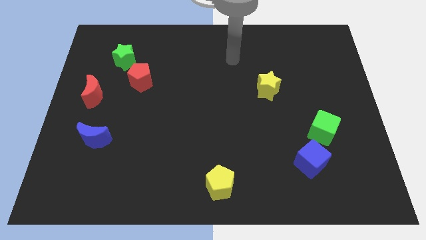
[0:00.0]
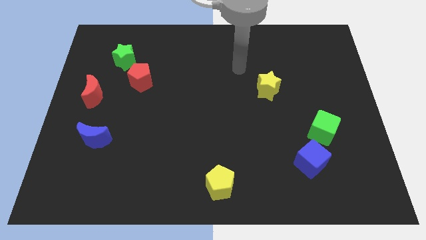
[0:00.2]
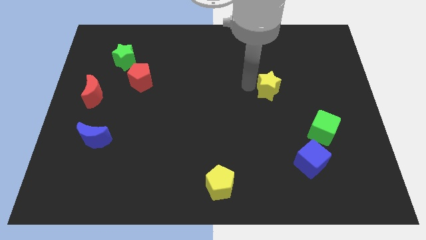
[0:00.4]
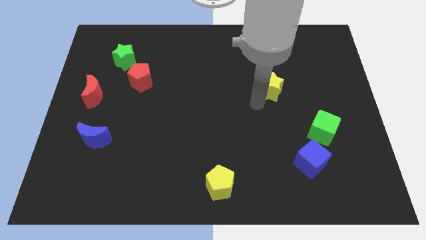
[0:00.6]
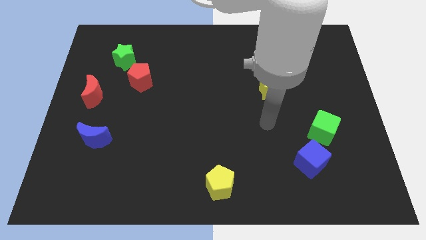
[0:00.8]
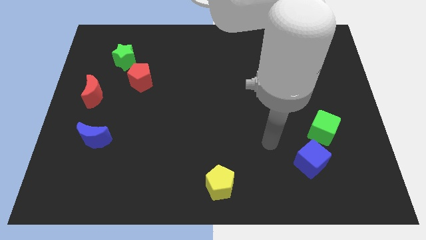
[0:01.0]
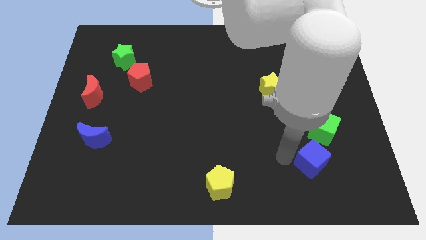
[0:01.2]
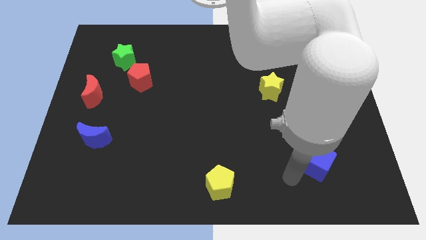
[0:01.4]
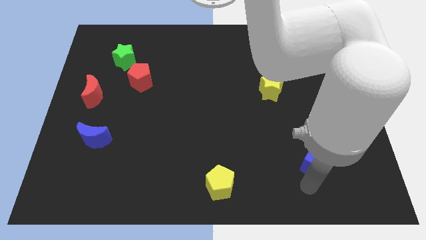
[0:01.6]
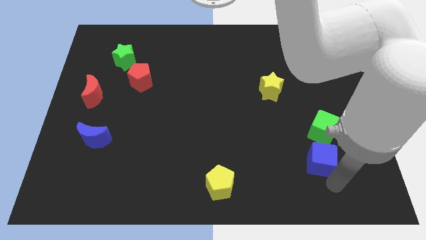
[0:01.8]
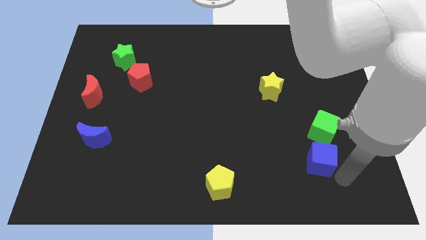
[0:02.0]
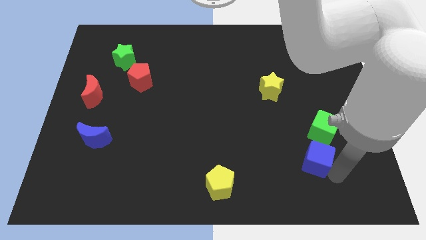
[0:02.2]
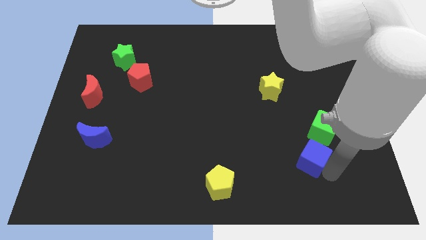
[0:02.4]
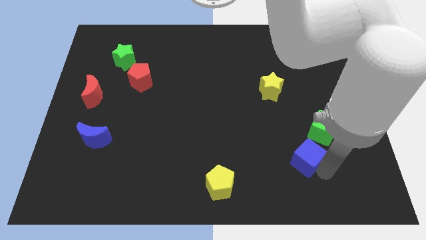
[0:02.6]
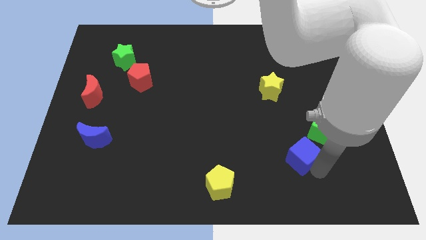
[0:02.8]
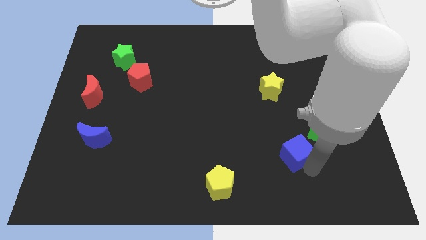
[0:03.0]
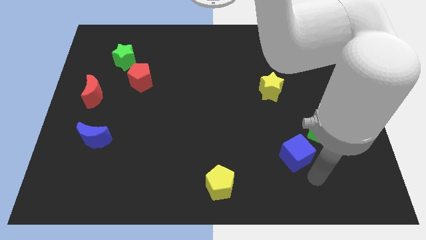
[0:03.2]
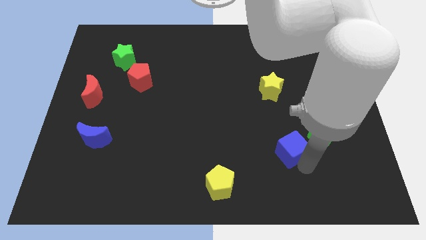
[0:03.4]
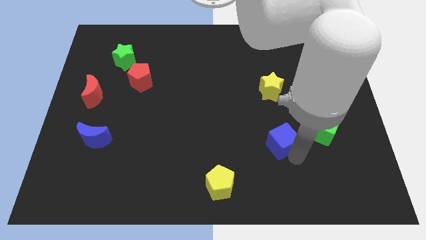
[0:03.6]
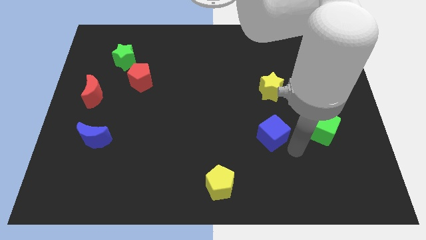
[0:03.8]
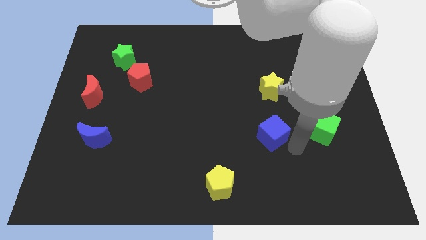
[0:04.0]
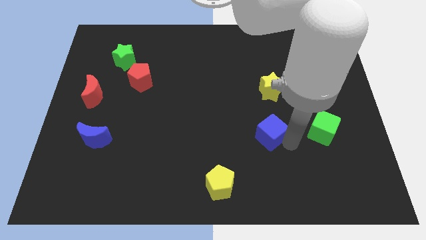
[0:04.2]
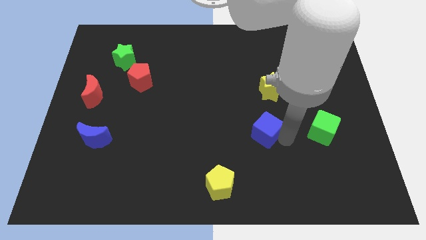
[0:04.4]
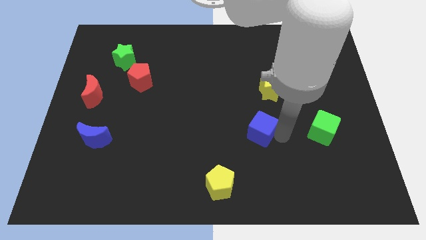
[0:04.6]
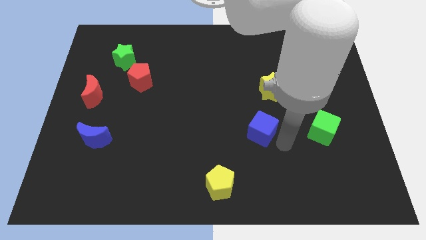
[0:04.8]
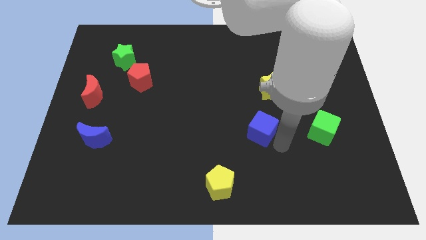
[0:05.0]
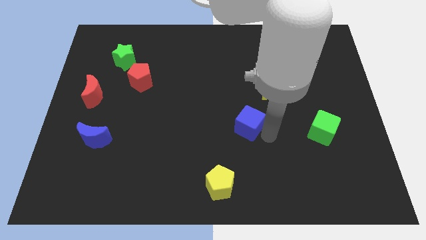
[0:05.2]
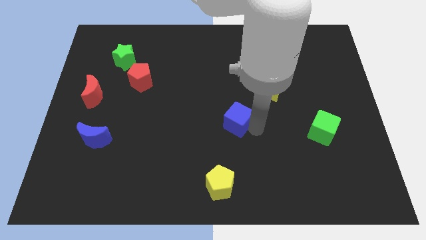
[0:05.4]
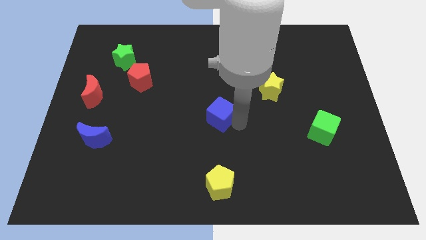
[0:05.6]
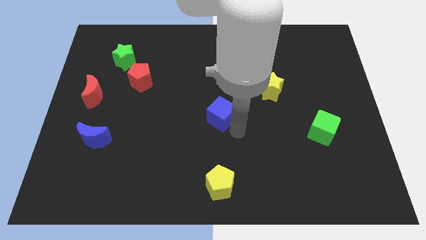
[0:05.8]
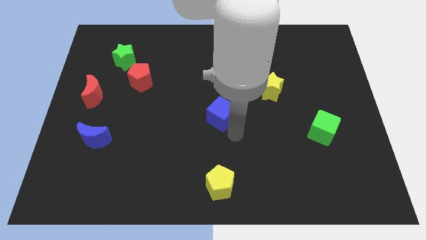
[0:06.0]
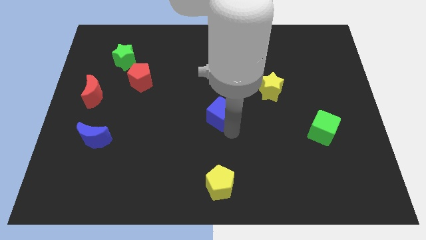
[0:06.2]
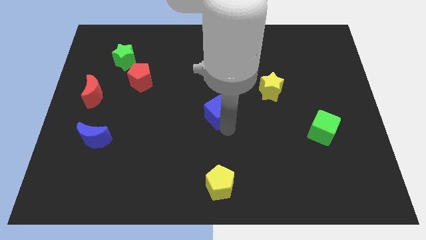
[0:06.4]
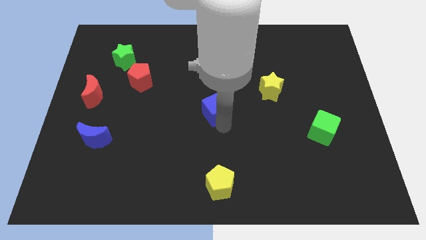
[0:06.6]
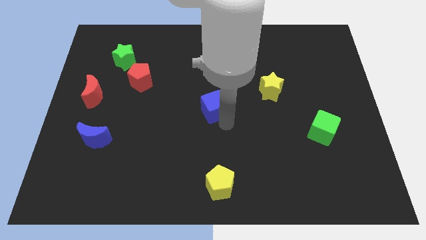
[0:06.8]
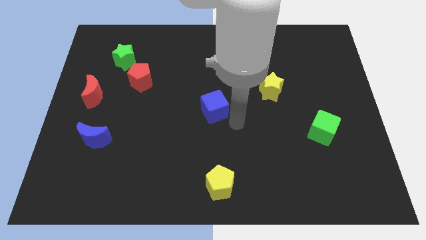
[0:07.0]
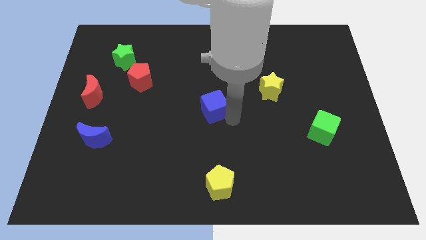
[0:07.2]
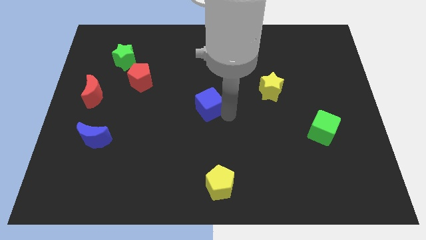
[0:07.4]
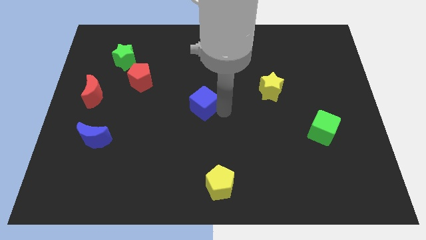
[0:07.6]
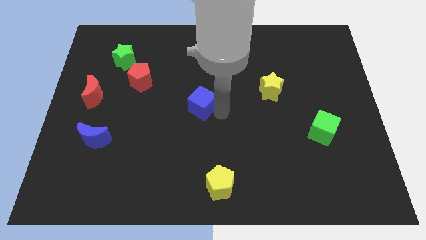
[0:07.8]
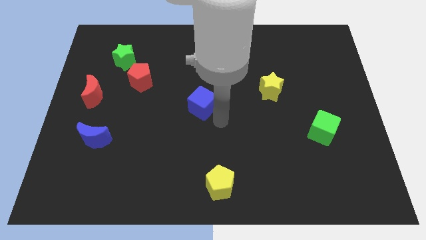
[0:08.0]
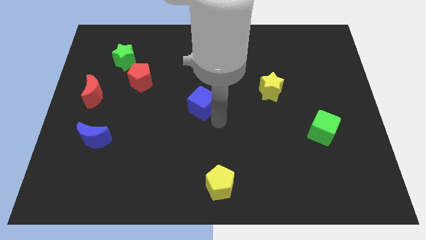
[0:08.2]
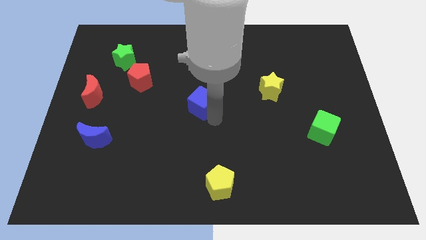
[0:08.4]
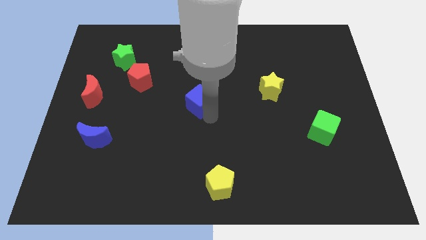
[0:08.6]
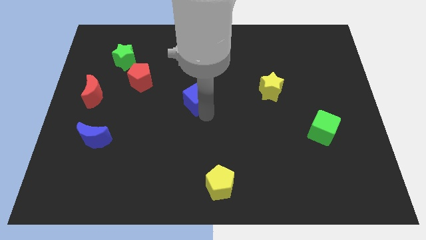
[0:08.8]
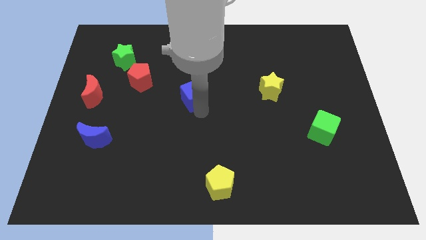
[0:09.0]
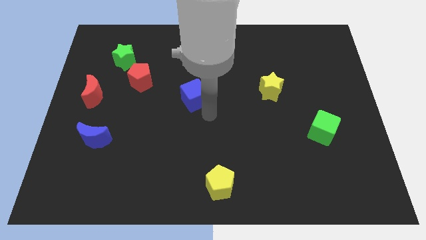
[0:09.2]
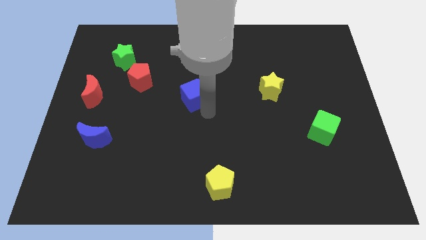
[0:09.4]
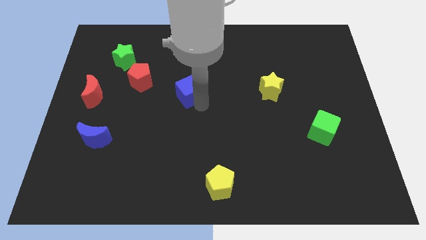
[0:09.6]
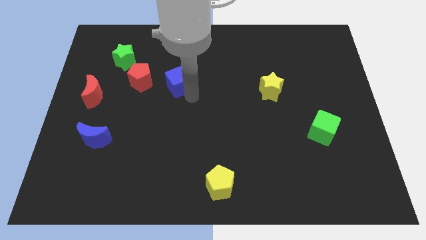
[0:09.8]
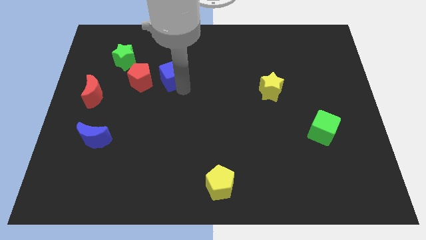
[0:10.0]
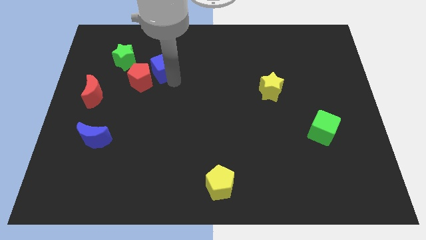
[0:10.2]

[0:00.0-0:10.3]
put the blue cube right of the green star

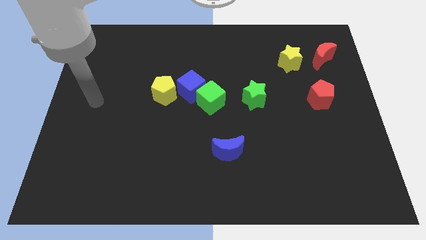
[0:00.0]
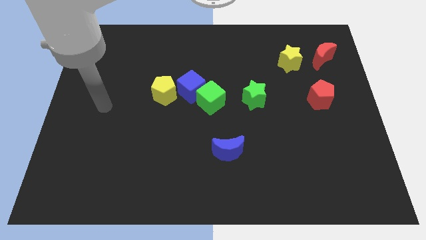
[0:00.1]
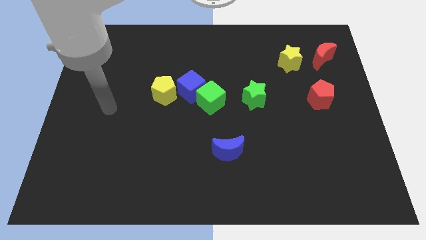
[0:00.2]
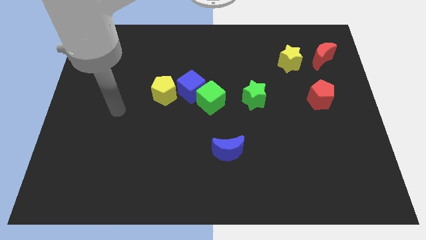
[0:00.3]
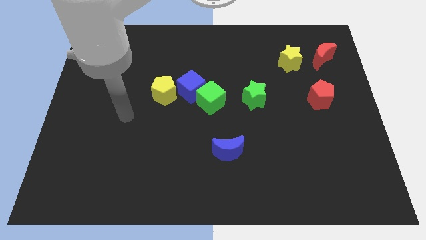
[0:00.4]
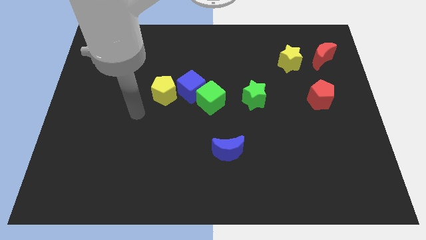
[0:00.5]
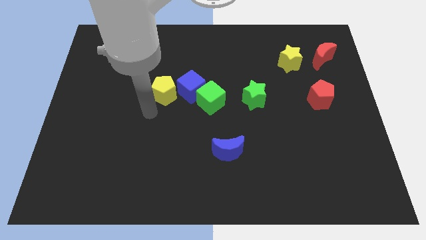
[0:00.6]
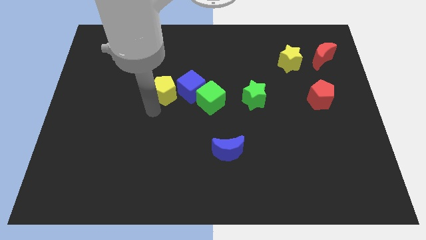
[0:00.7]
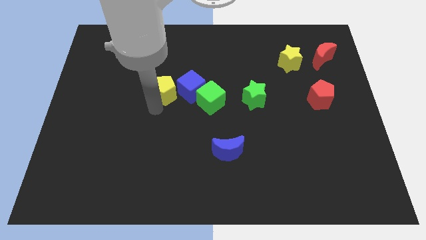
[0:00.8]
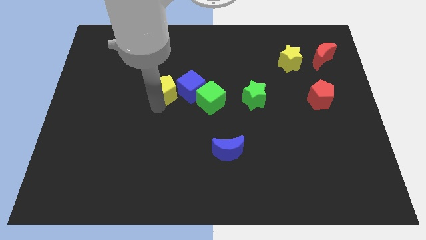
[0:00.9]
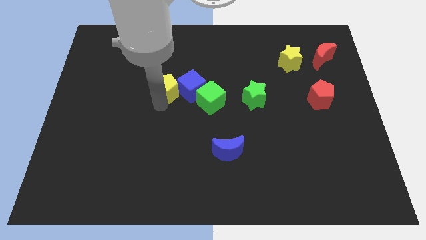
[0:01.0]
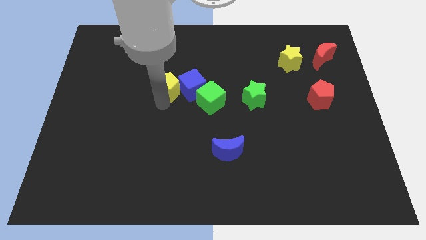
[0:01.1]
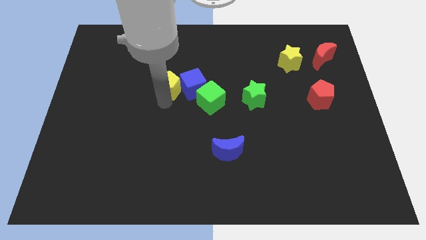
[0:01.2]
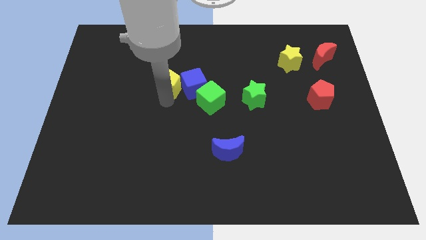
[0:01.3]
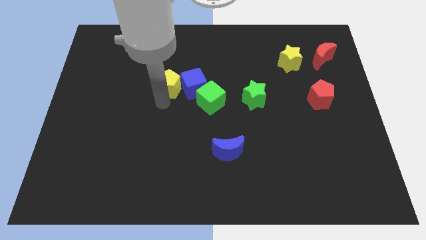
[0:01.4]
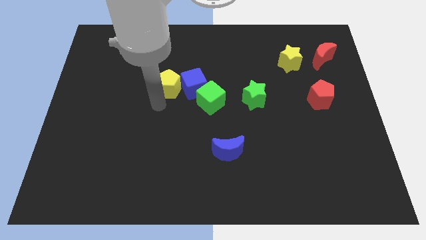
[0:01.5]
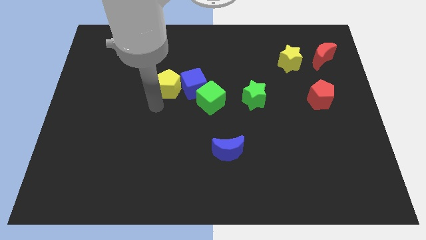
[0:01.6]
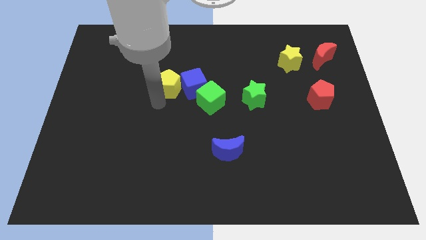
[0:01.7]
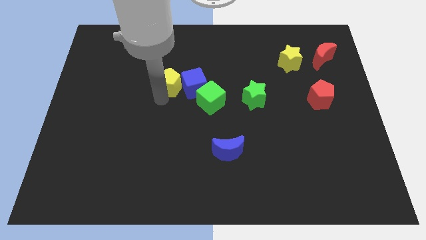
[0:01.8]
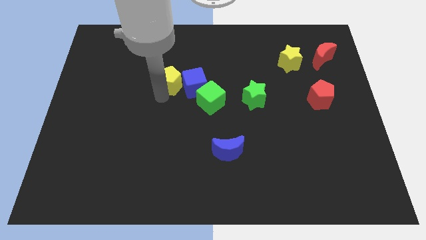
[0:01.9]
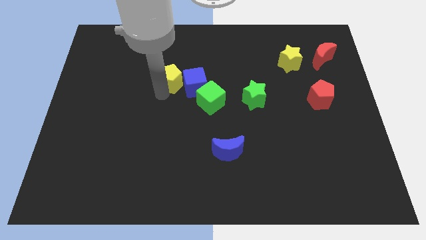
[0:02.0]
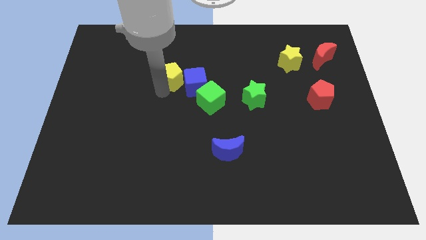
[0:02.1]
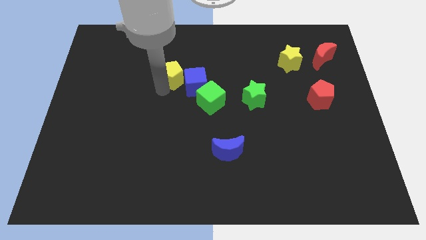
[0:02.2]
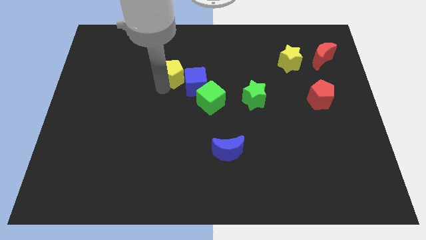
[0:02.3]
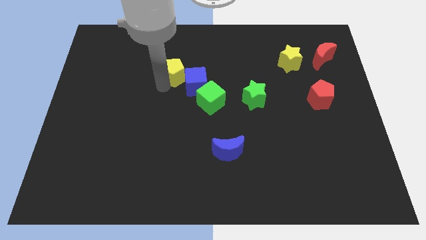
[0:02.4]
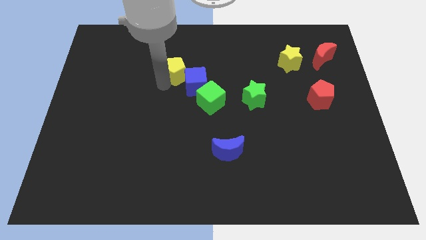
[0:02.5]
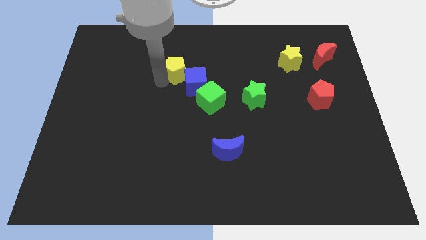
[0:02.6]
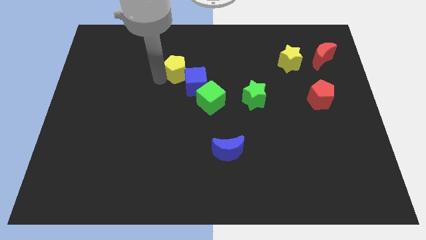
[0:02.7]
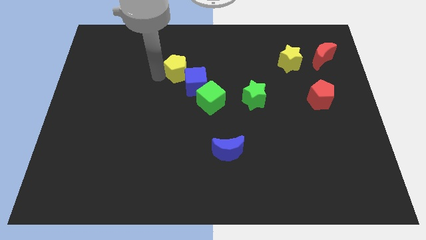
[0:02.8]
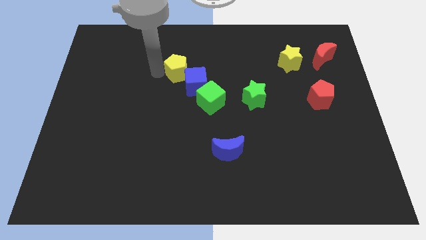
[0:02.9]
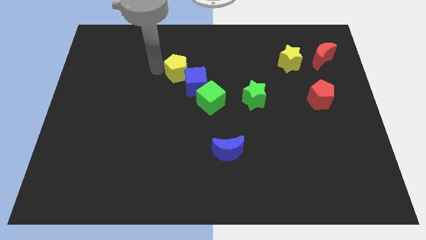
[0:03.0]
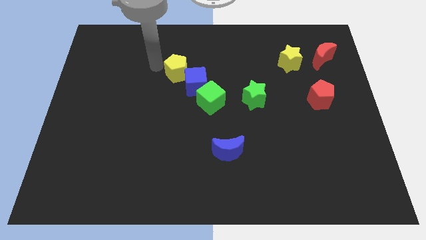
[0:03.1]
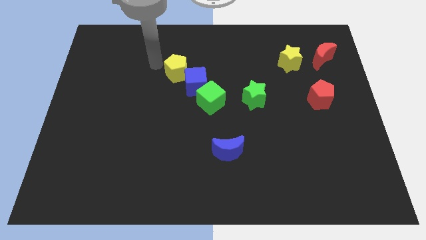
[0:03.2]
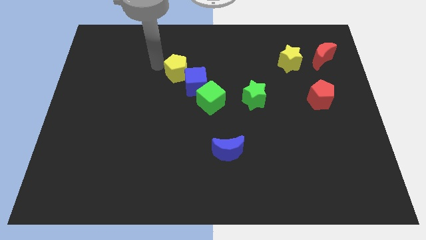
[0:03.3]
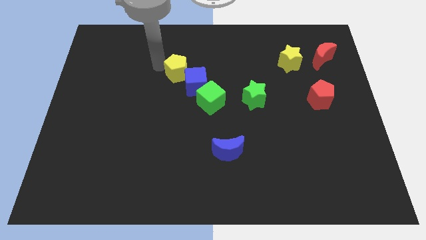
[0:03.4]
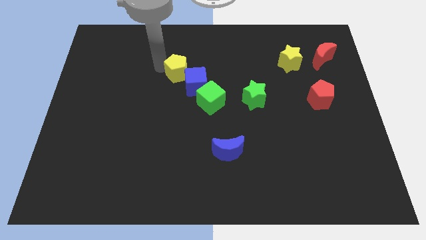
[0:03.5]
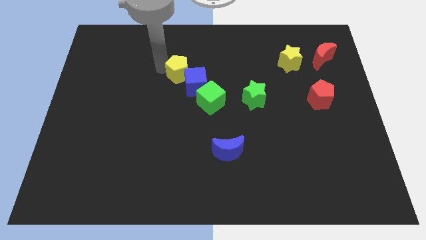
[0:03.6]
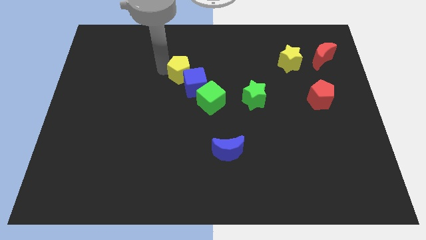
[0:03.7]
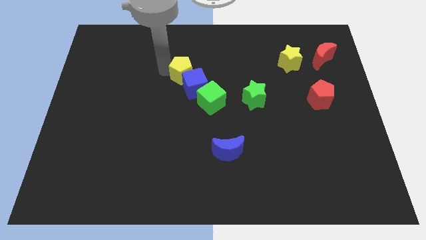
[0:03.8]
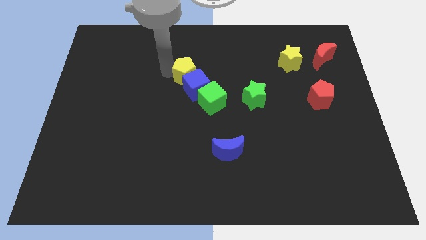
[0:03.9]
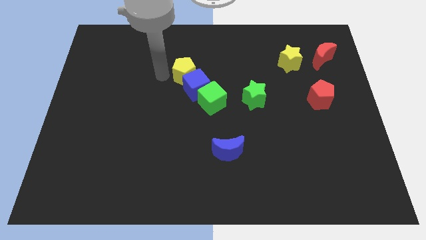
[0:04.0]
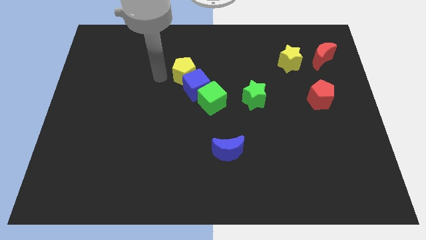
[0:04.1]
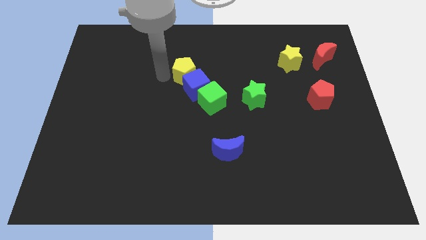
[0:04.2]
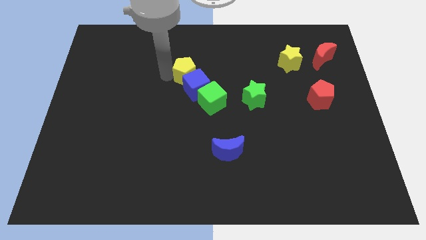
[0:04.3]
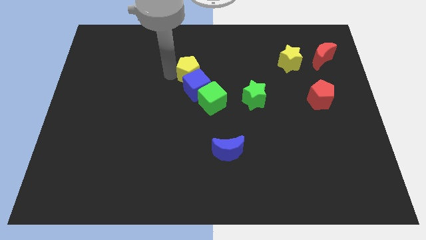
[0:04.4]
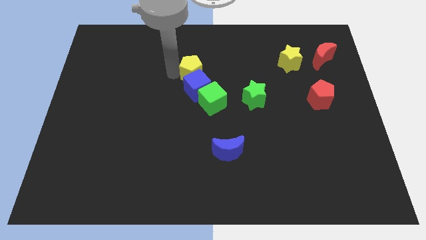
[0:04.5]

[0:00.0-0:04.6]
slide the yellow pentagon to the top right side of the blue cube
